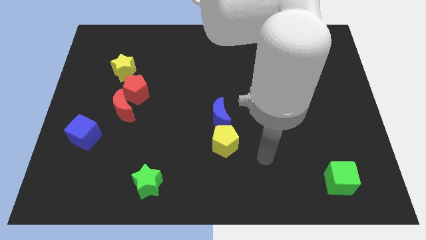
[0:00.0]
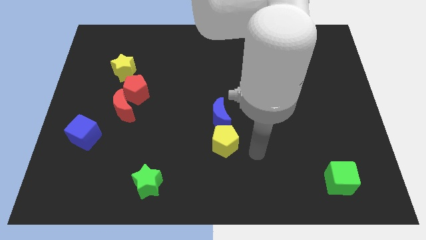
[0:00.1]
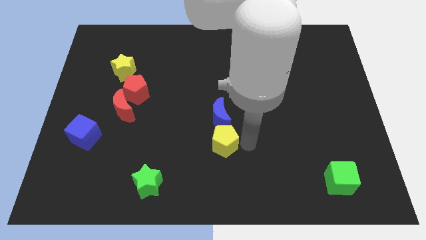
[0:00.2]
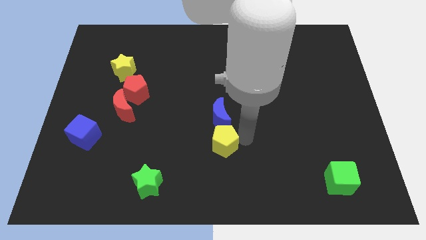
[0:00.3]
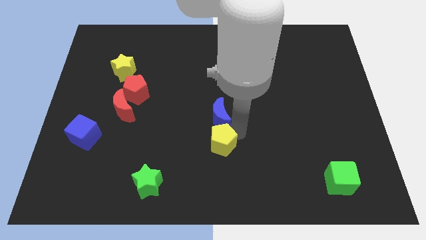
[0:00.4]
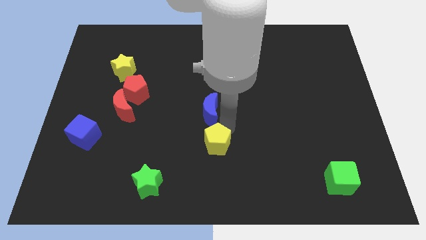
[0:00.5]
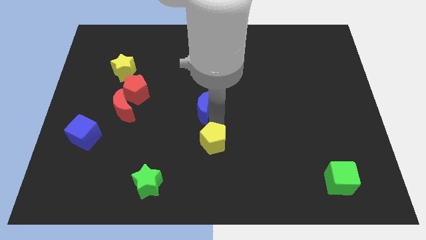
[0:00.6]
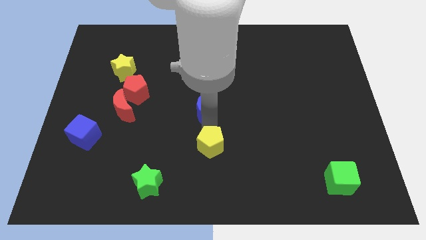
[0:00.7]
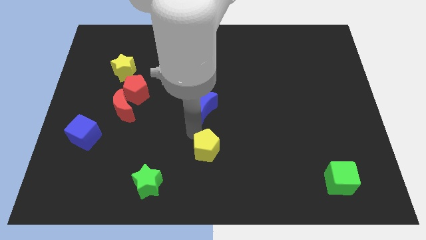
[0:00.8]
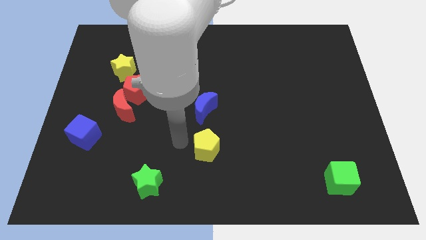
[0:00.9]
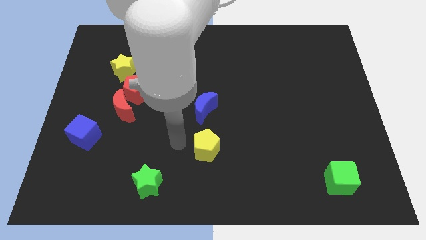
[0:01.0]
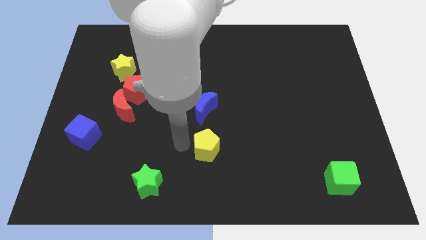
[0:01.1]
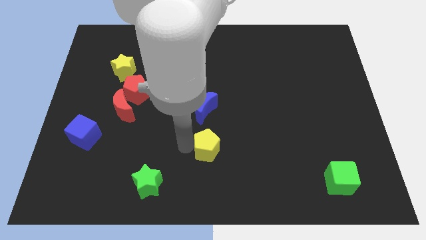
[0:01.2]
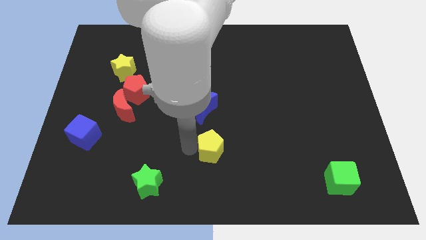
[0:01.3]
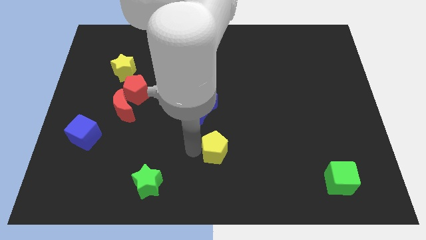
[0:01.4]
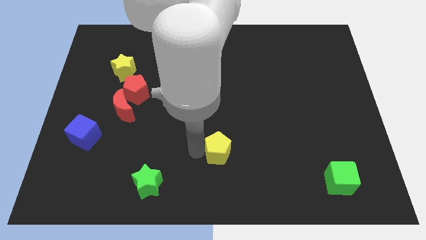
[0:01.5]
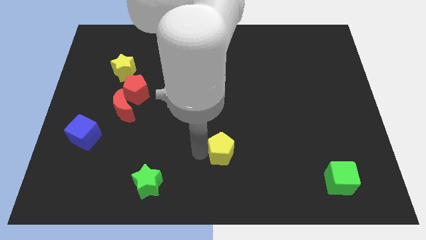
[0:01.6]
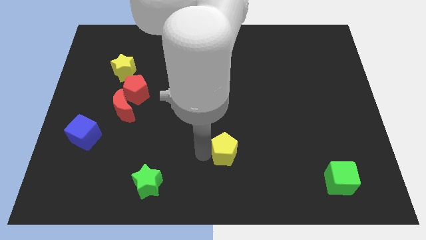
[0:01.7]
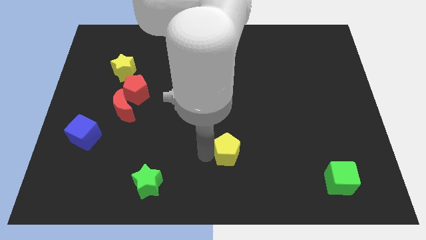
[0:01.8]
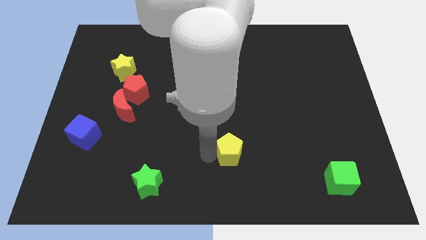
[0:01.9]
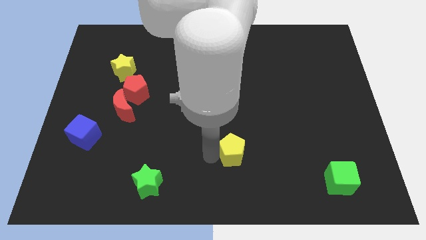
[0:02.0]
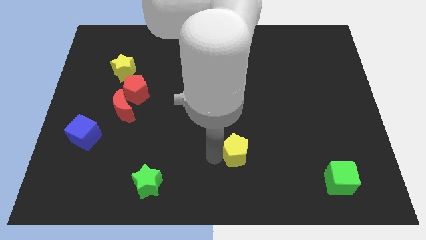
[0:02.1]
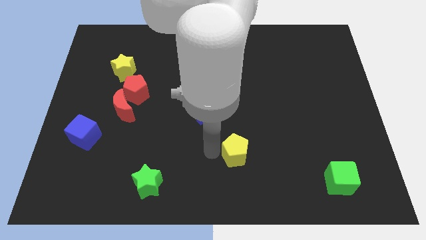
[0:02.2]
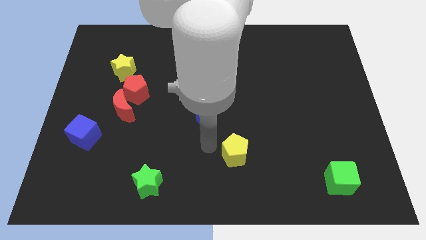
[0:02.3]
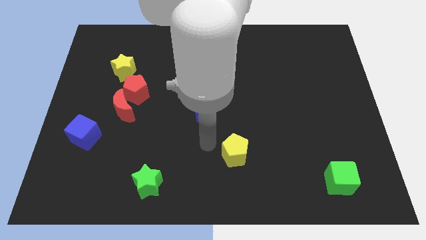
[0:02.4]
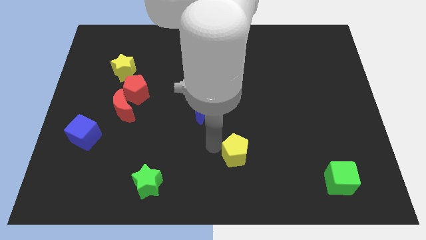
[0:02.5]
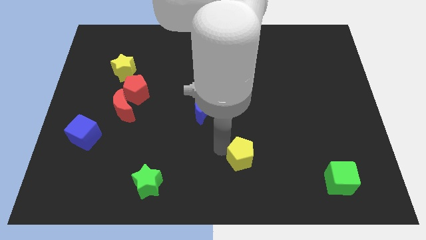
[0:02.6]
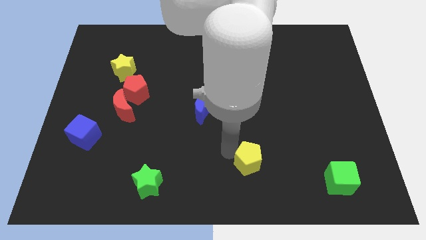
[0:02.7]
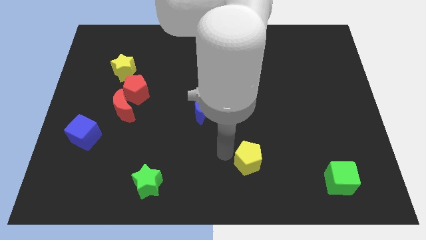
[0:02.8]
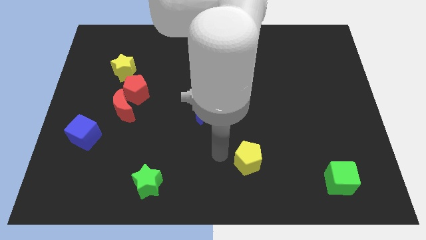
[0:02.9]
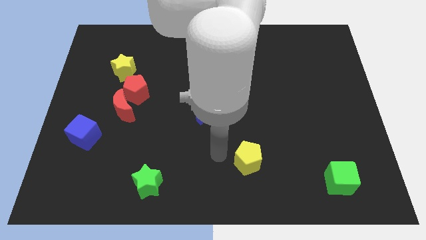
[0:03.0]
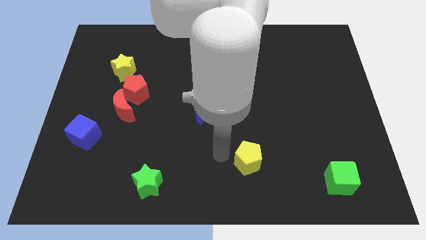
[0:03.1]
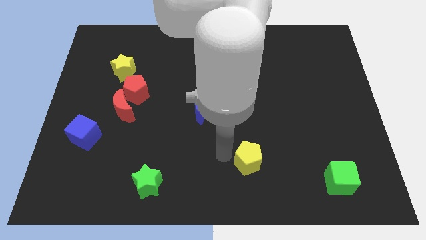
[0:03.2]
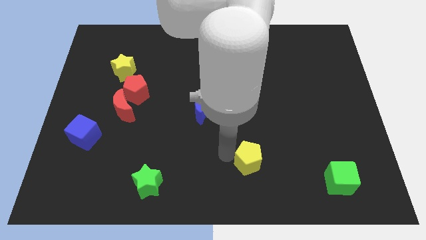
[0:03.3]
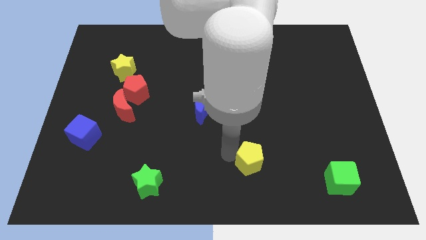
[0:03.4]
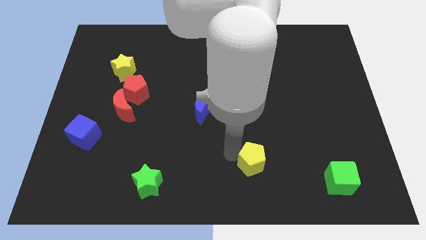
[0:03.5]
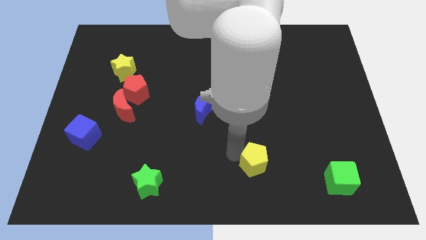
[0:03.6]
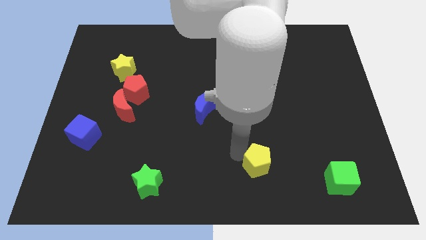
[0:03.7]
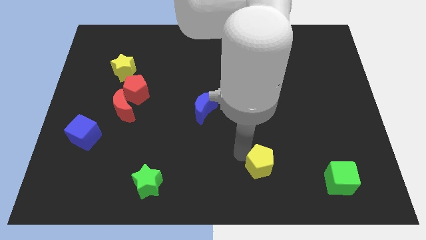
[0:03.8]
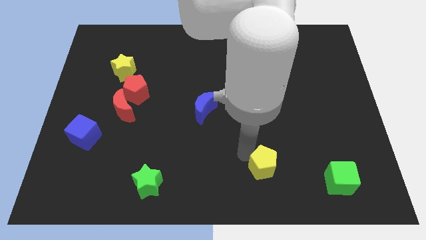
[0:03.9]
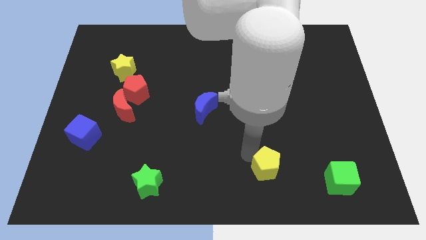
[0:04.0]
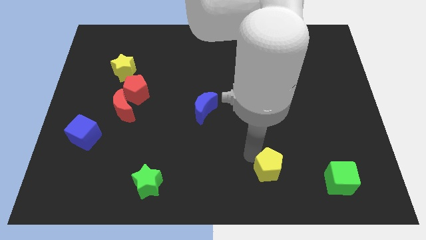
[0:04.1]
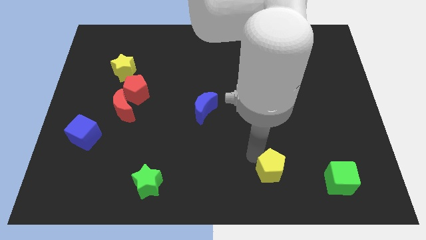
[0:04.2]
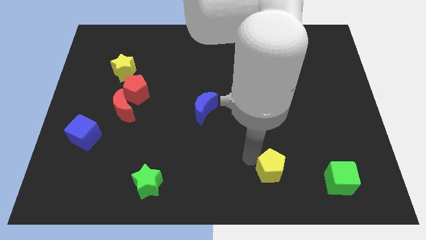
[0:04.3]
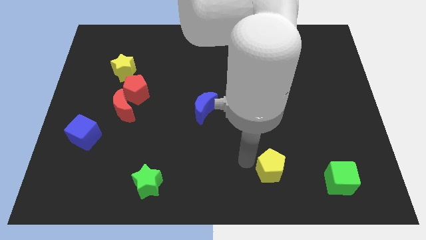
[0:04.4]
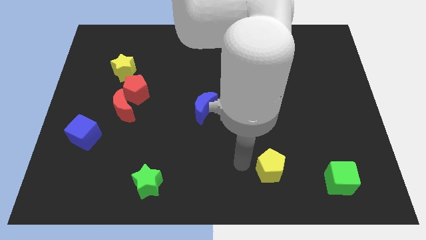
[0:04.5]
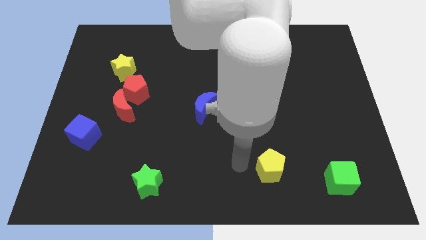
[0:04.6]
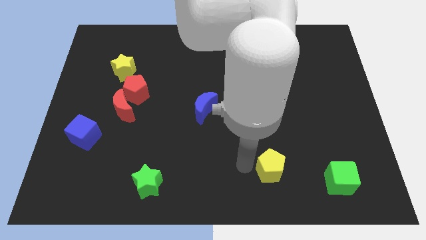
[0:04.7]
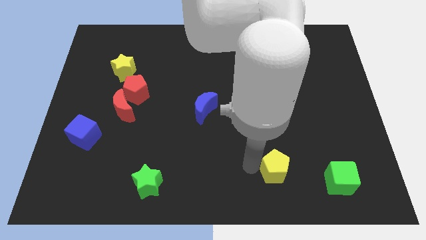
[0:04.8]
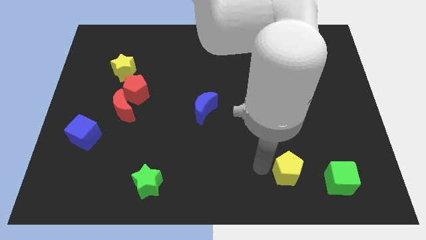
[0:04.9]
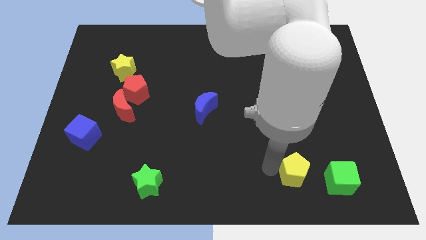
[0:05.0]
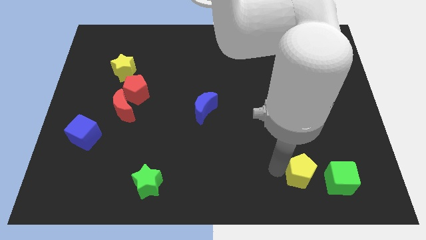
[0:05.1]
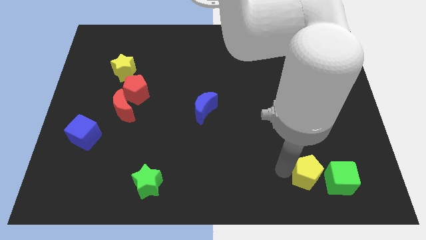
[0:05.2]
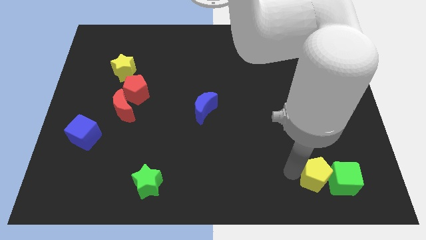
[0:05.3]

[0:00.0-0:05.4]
put the yellow pentagon to the green cube

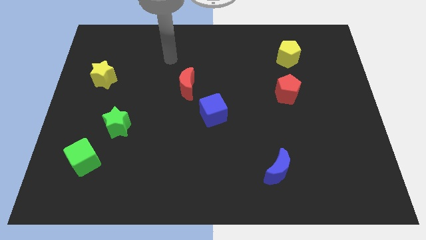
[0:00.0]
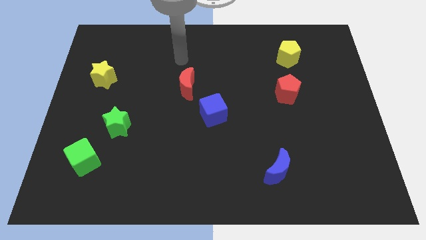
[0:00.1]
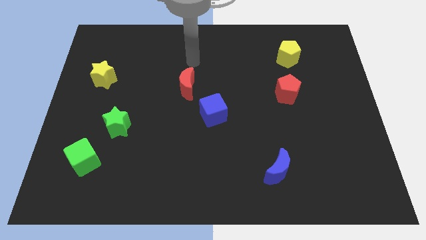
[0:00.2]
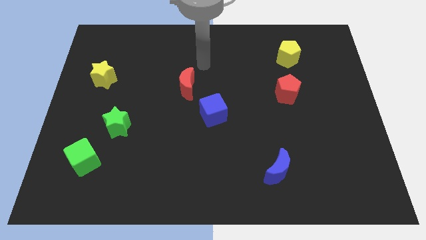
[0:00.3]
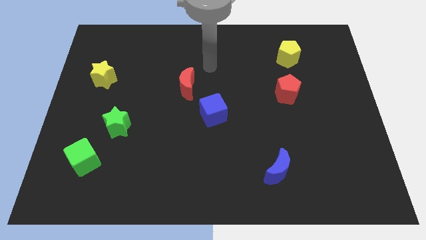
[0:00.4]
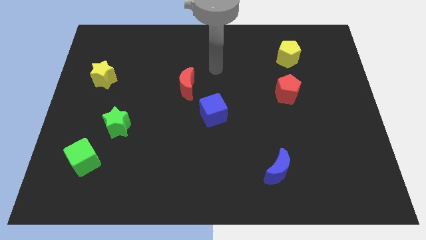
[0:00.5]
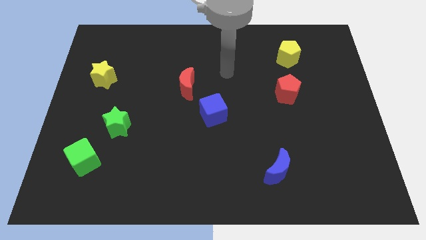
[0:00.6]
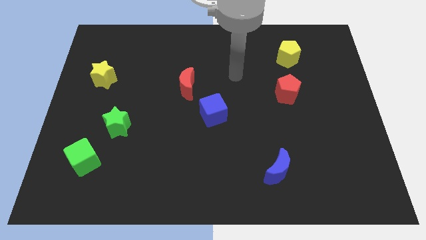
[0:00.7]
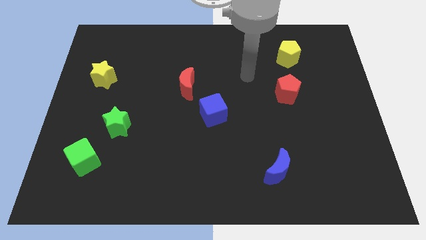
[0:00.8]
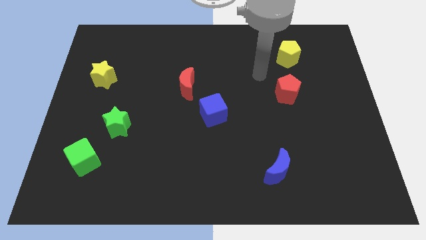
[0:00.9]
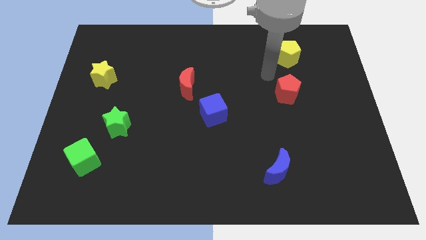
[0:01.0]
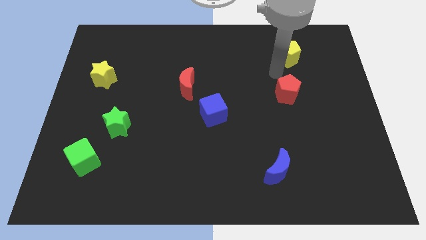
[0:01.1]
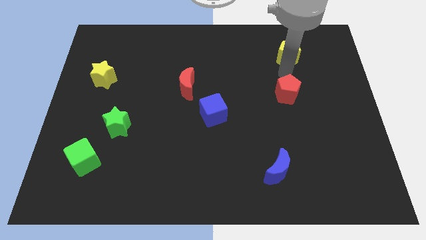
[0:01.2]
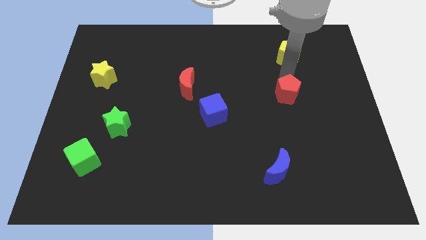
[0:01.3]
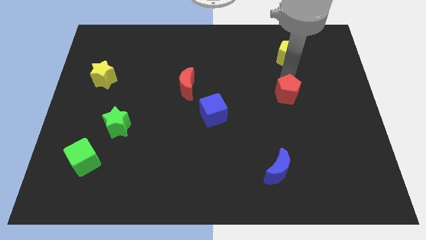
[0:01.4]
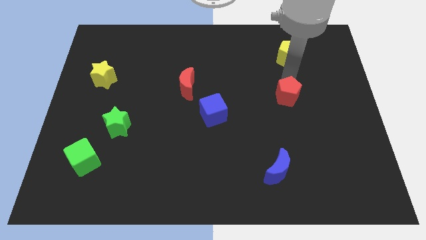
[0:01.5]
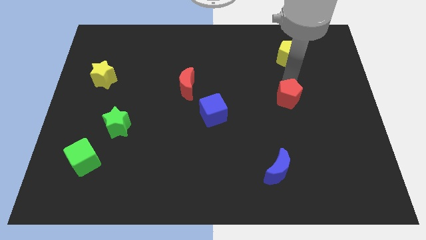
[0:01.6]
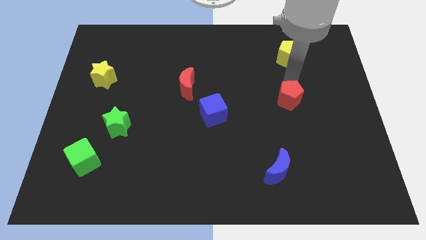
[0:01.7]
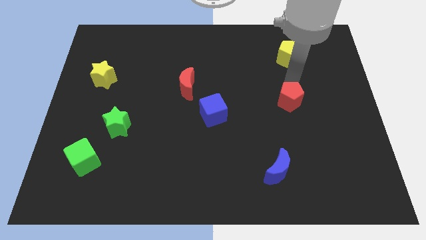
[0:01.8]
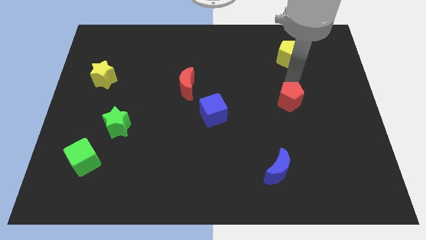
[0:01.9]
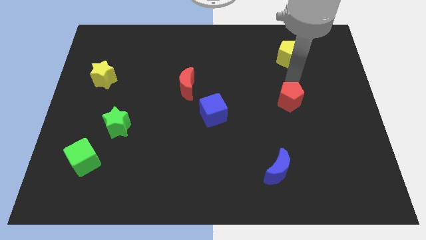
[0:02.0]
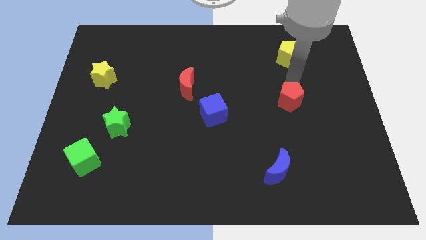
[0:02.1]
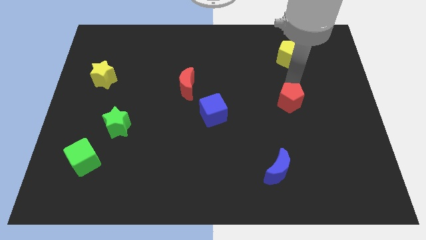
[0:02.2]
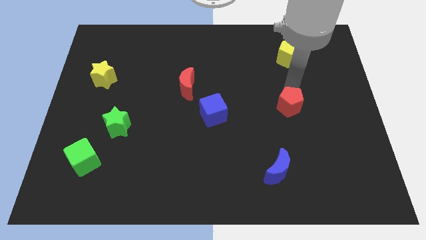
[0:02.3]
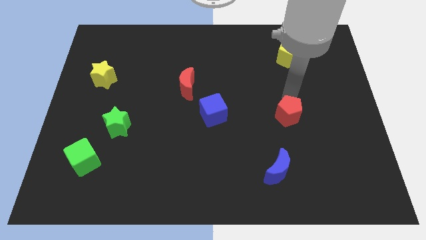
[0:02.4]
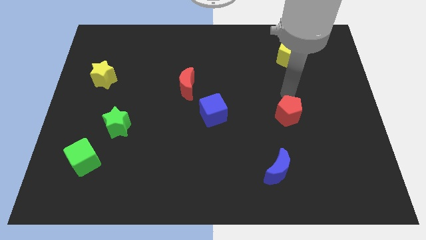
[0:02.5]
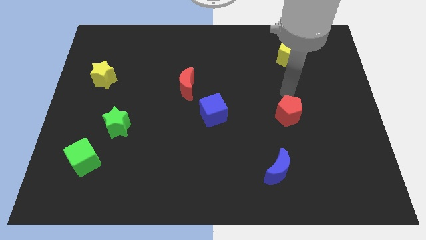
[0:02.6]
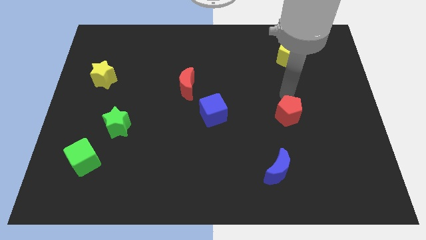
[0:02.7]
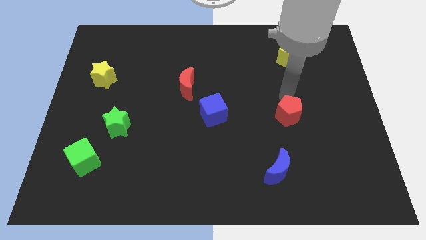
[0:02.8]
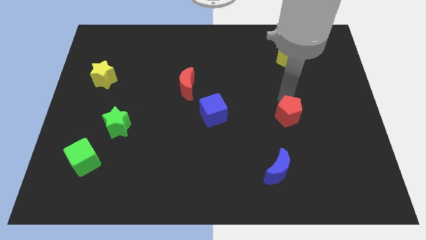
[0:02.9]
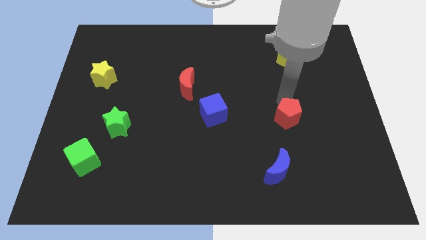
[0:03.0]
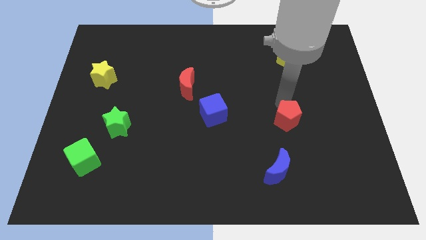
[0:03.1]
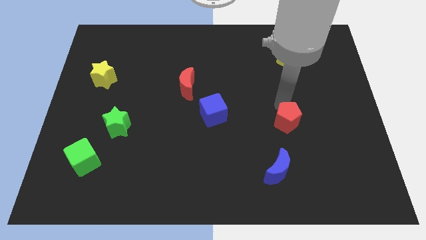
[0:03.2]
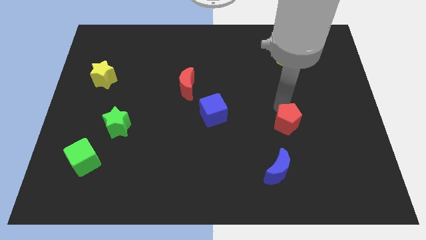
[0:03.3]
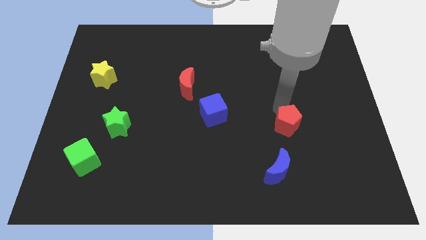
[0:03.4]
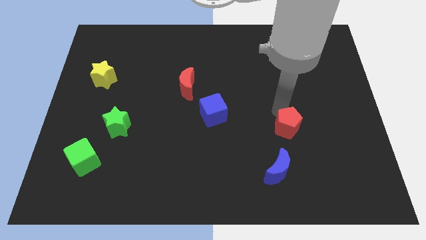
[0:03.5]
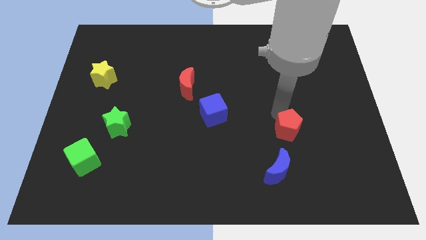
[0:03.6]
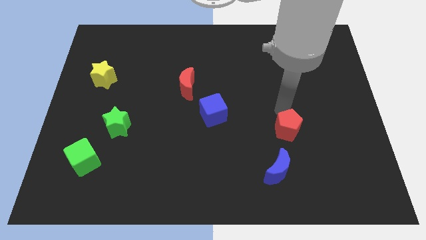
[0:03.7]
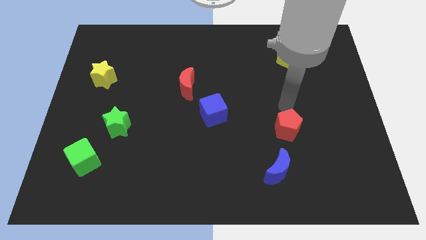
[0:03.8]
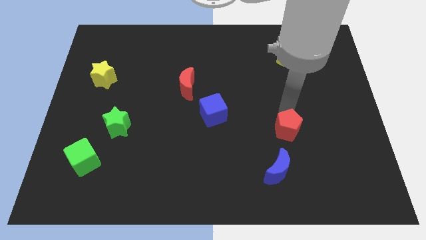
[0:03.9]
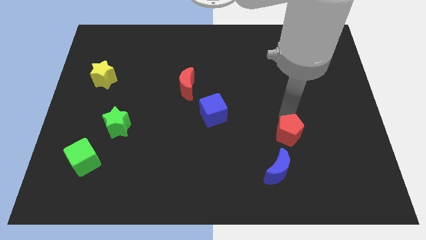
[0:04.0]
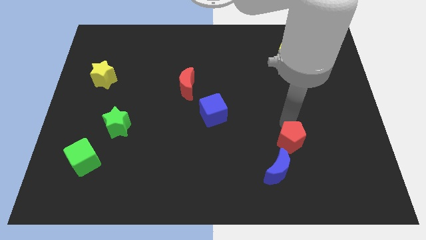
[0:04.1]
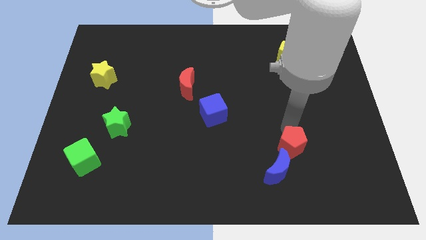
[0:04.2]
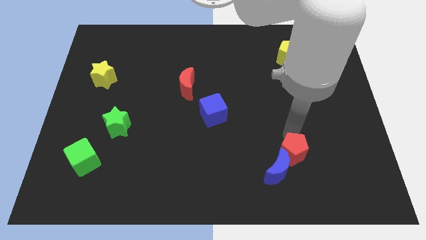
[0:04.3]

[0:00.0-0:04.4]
slide the red pentagon towards the blue moon
